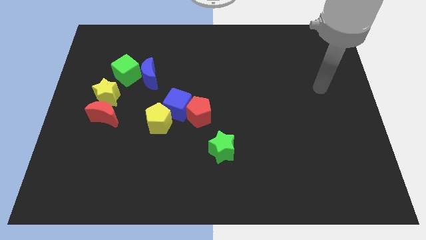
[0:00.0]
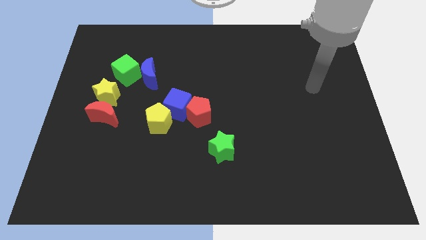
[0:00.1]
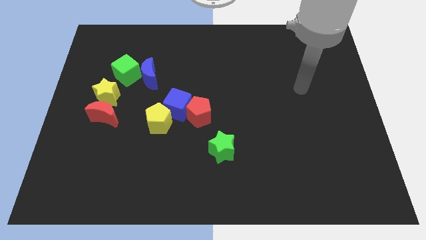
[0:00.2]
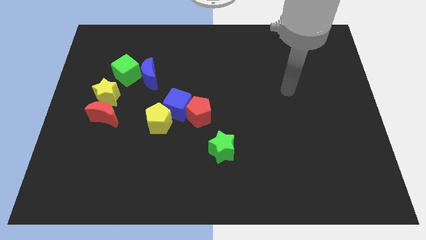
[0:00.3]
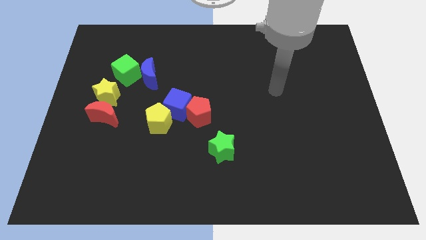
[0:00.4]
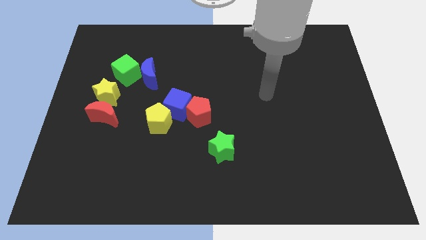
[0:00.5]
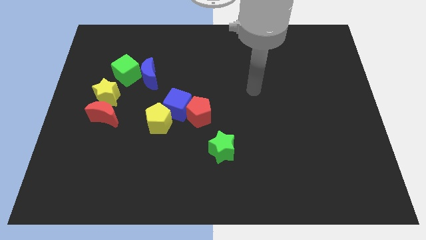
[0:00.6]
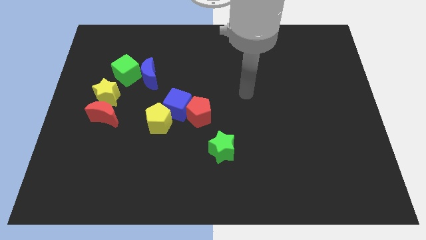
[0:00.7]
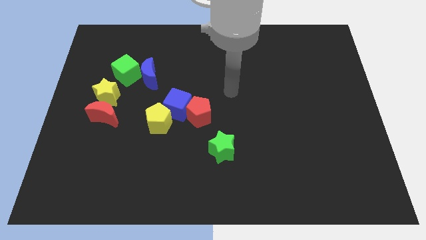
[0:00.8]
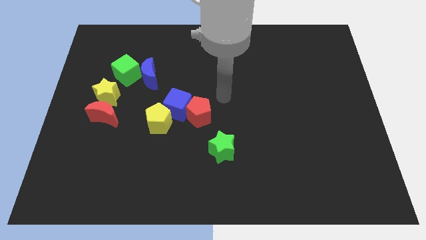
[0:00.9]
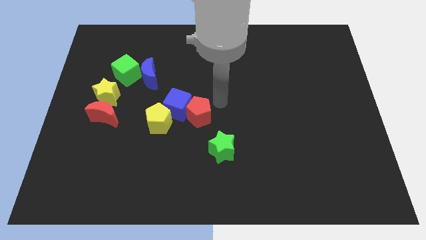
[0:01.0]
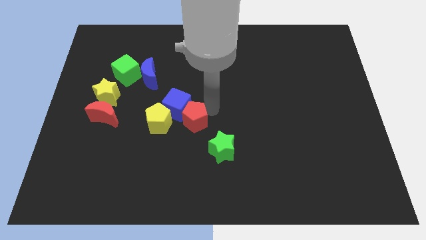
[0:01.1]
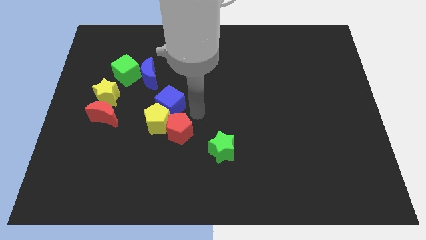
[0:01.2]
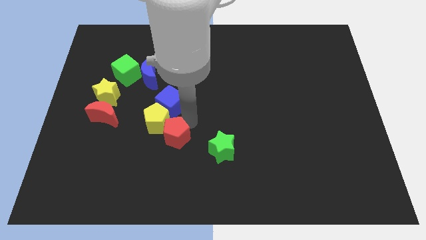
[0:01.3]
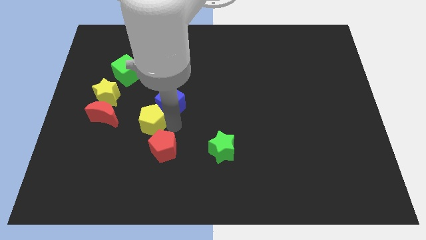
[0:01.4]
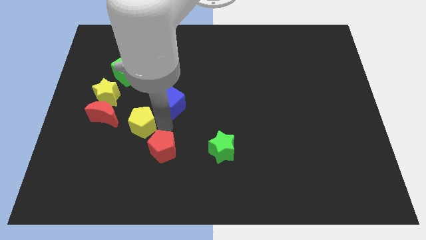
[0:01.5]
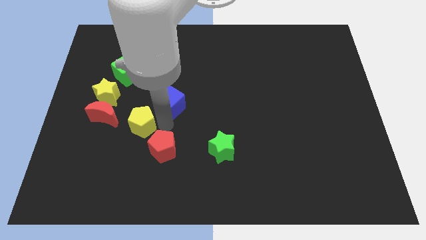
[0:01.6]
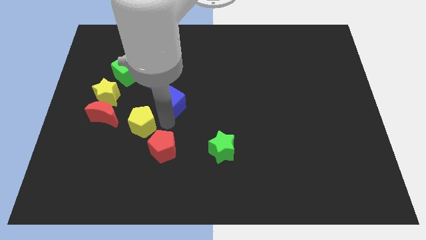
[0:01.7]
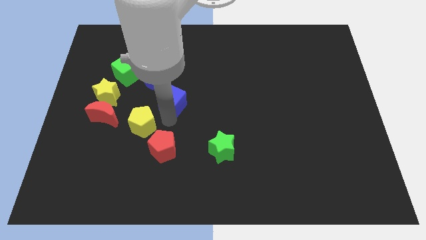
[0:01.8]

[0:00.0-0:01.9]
separate the blue cube from the red pentagon and yellow pentagon

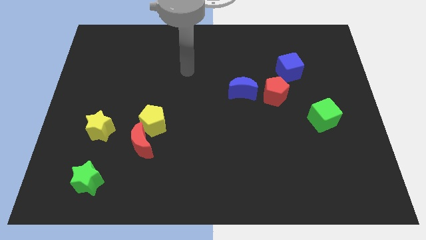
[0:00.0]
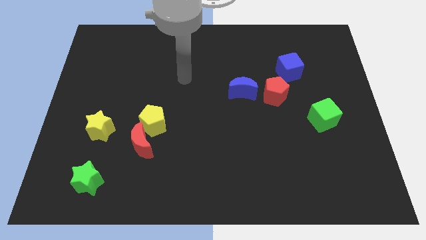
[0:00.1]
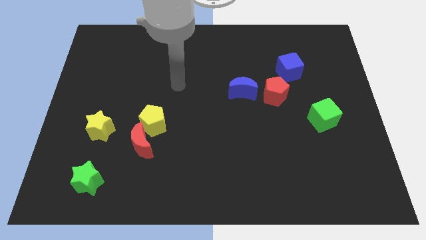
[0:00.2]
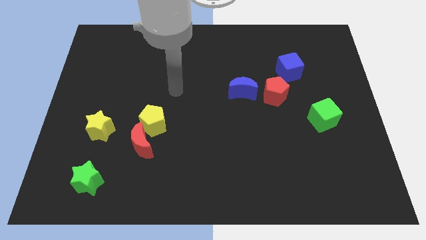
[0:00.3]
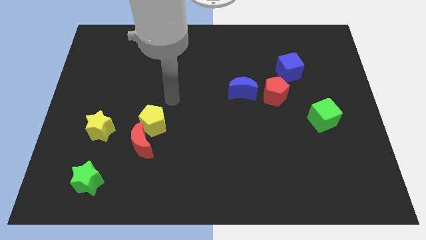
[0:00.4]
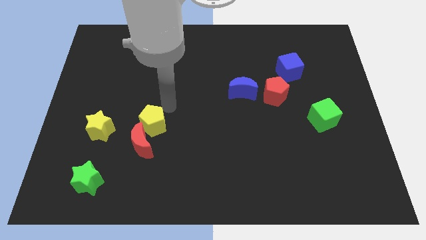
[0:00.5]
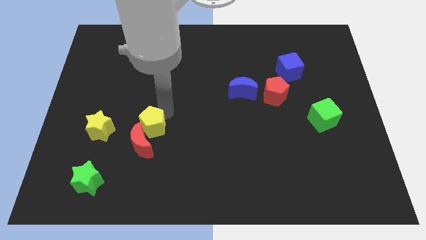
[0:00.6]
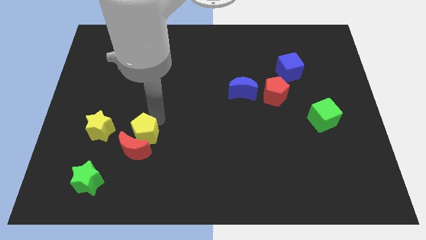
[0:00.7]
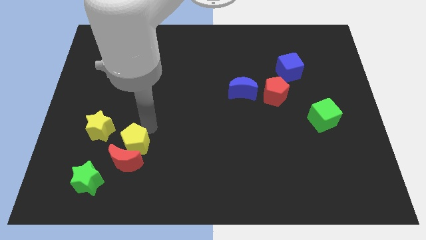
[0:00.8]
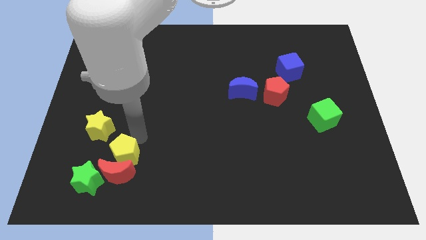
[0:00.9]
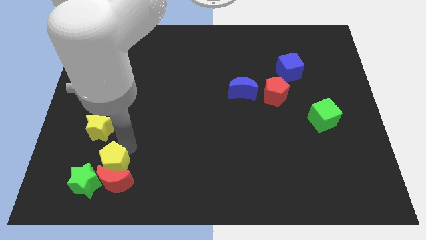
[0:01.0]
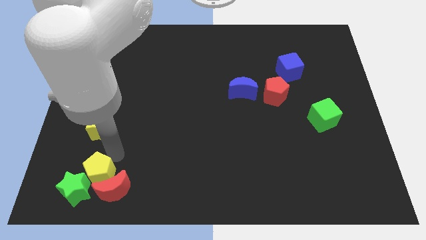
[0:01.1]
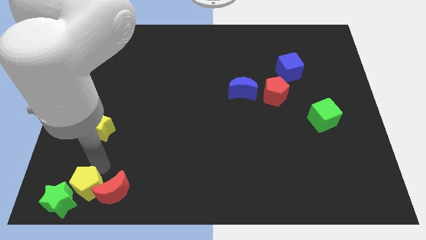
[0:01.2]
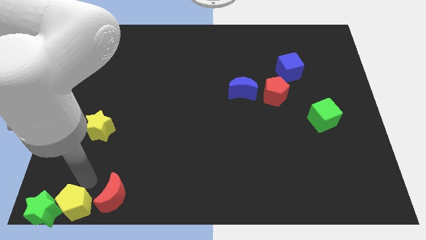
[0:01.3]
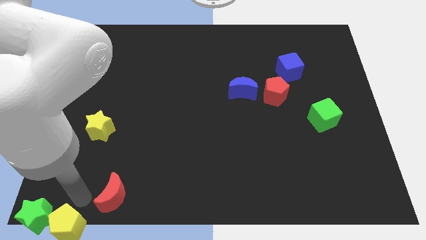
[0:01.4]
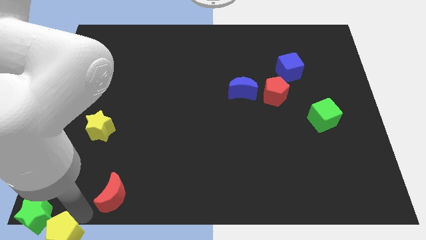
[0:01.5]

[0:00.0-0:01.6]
separate the red moon from the yellow pentagon

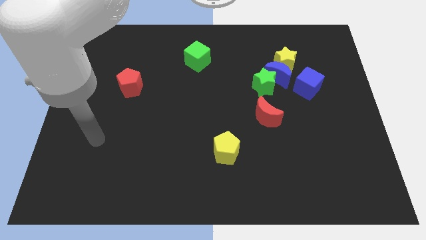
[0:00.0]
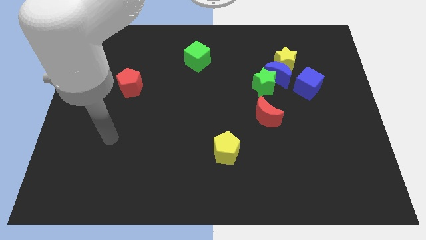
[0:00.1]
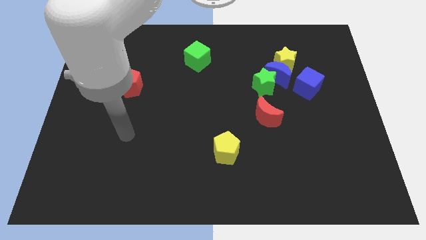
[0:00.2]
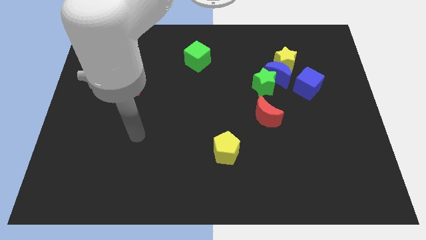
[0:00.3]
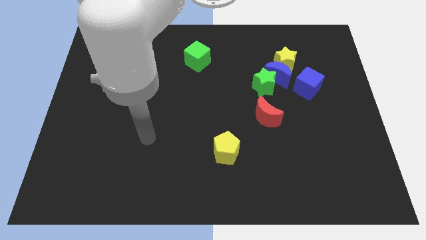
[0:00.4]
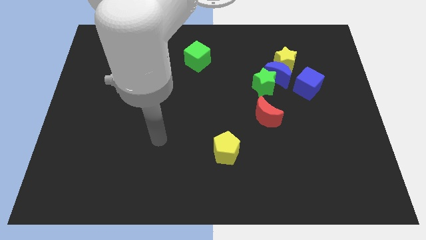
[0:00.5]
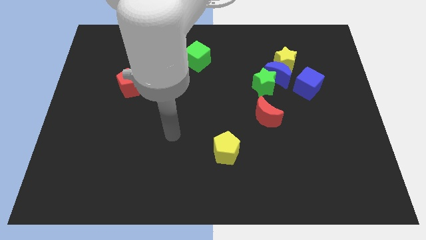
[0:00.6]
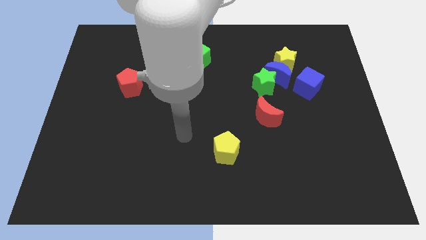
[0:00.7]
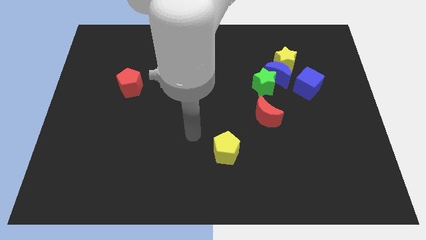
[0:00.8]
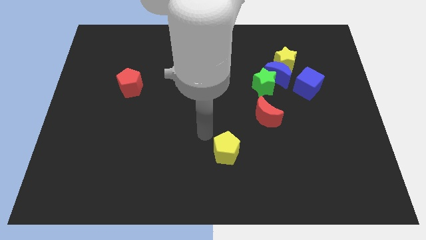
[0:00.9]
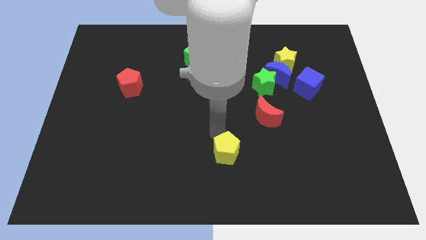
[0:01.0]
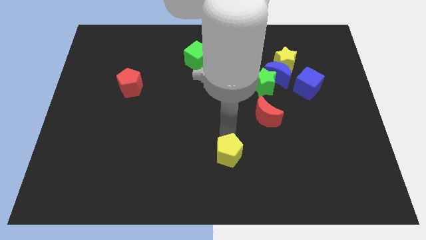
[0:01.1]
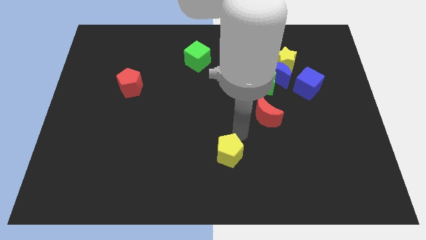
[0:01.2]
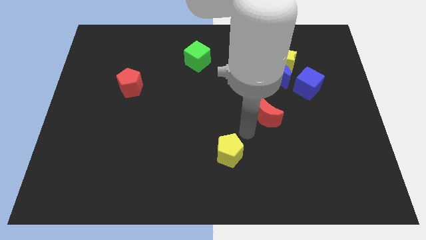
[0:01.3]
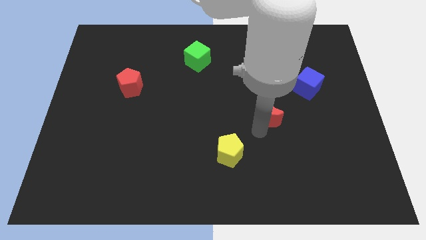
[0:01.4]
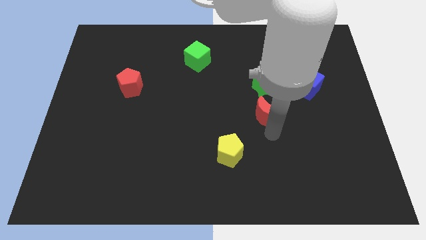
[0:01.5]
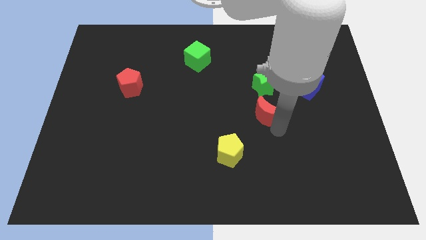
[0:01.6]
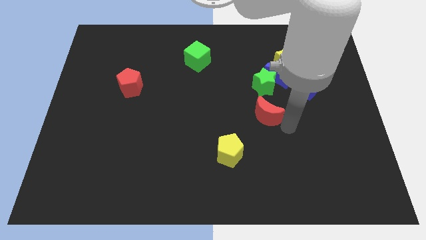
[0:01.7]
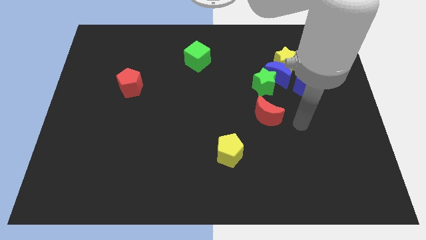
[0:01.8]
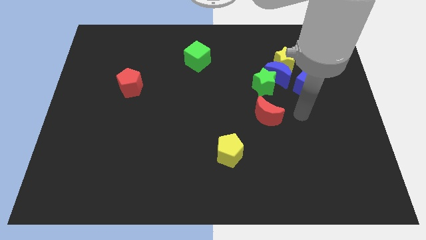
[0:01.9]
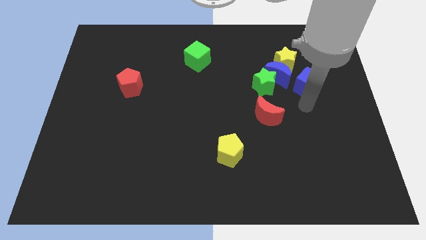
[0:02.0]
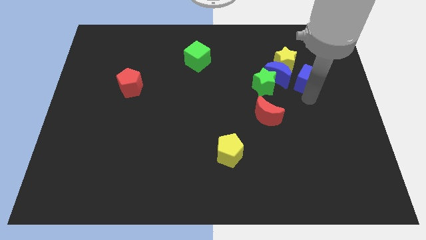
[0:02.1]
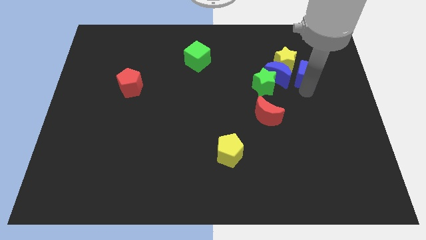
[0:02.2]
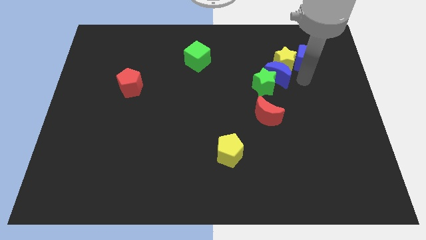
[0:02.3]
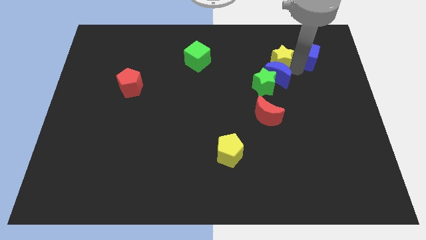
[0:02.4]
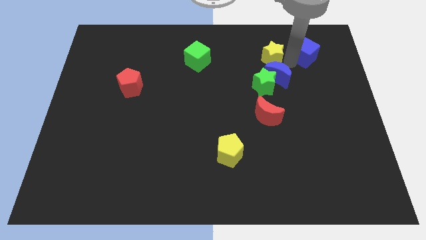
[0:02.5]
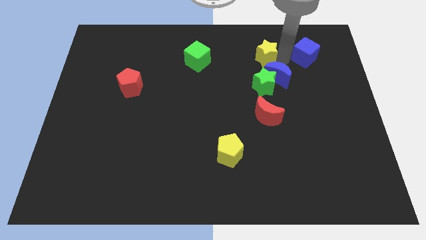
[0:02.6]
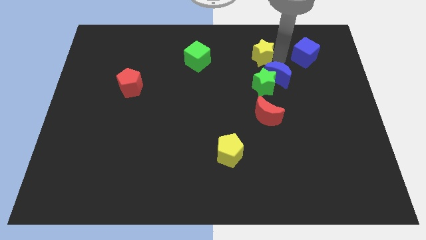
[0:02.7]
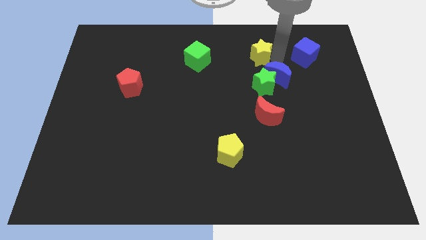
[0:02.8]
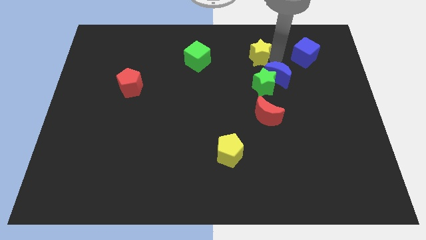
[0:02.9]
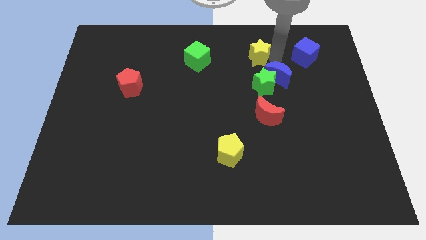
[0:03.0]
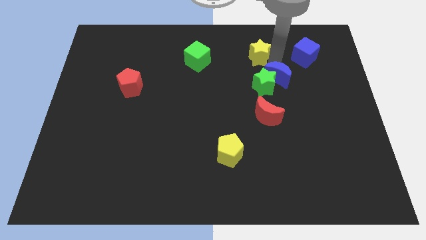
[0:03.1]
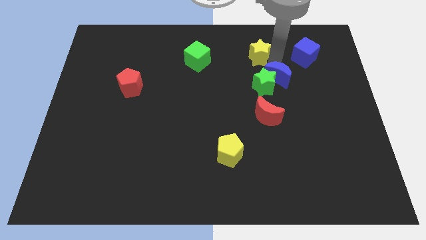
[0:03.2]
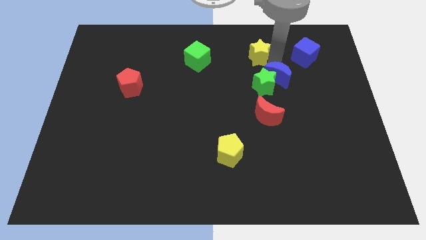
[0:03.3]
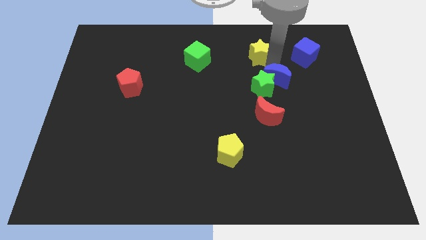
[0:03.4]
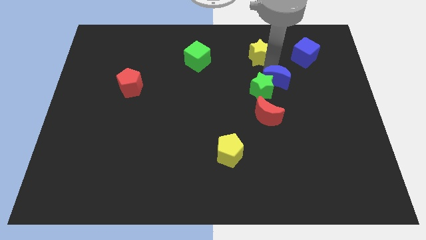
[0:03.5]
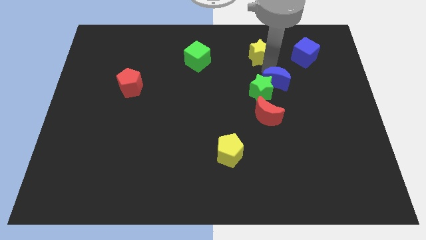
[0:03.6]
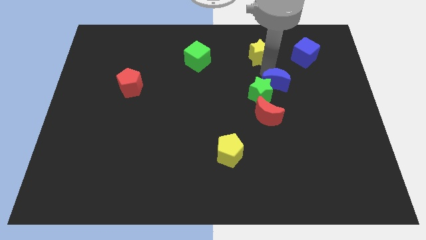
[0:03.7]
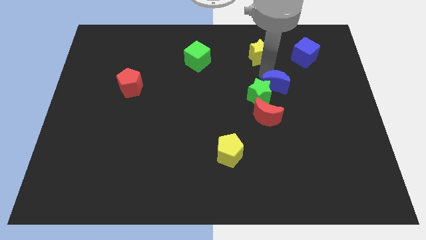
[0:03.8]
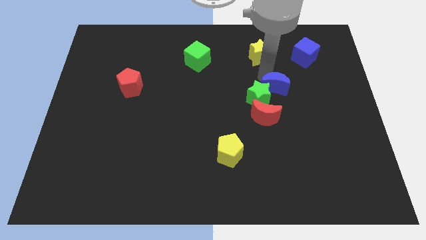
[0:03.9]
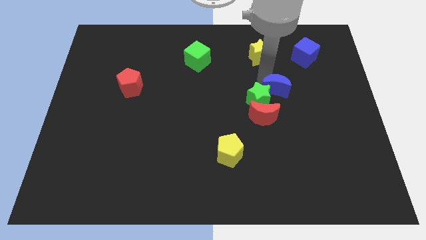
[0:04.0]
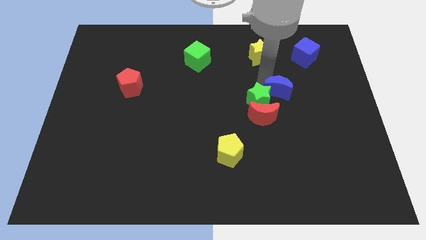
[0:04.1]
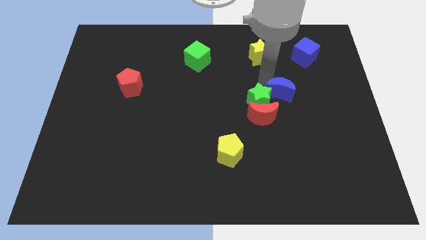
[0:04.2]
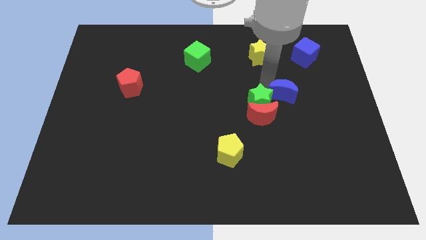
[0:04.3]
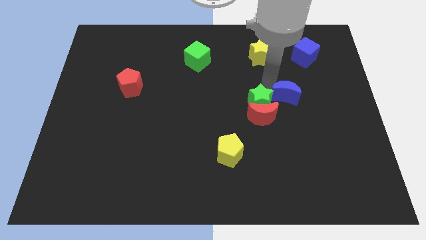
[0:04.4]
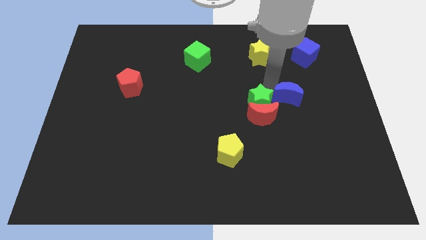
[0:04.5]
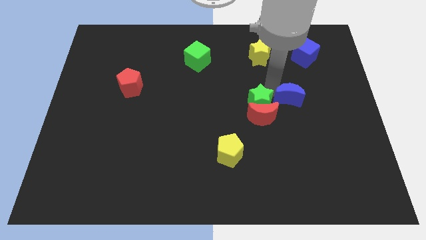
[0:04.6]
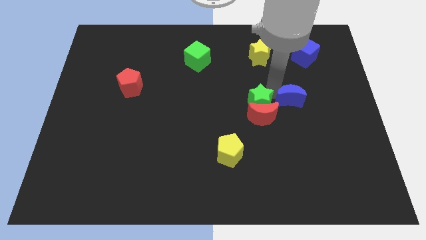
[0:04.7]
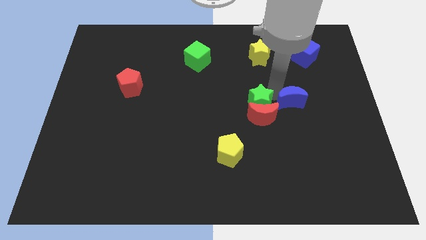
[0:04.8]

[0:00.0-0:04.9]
move the blue moon away from the clump

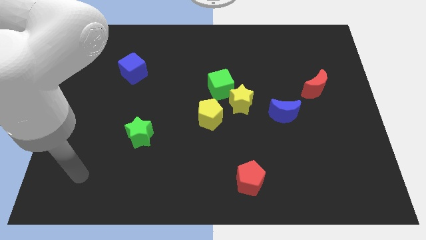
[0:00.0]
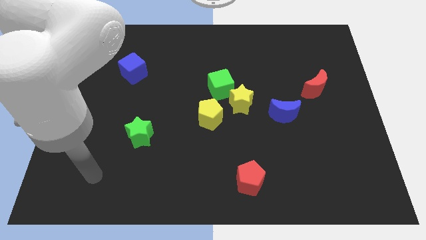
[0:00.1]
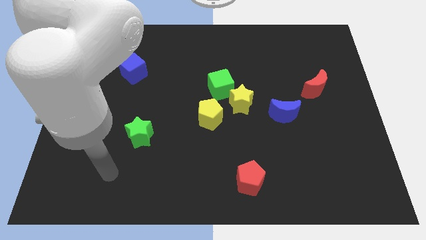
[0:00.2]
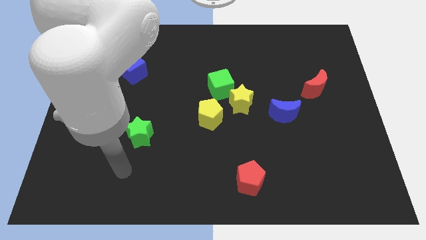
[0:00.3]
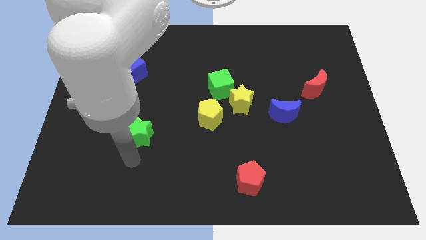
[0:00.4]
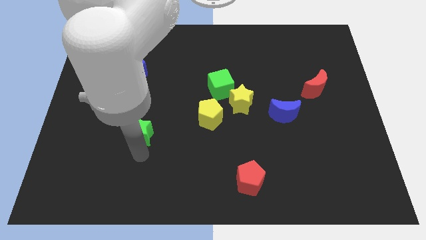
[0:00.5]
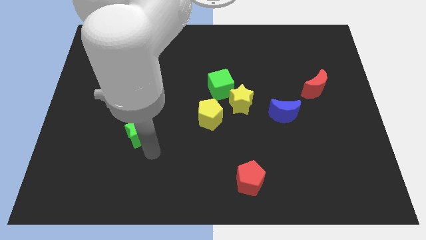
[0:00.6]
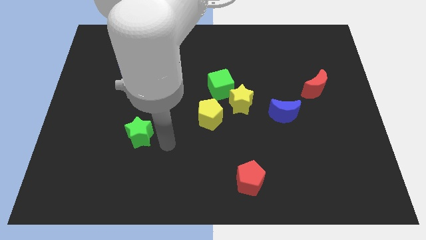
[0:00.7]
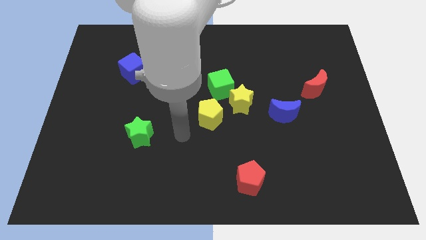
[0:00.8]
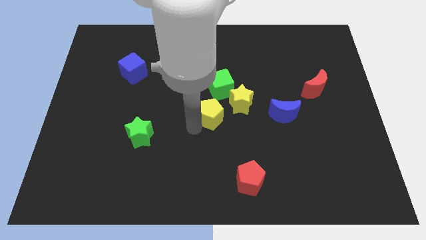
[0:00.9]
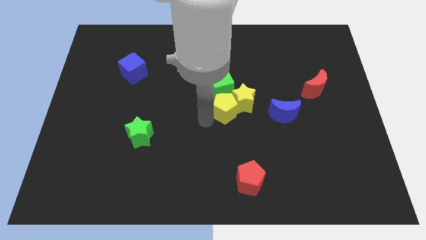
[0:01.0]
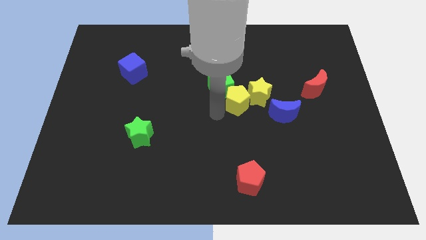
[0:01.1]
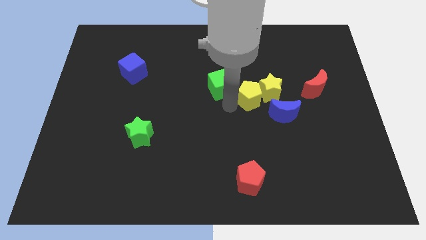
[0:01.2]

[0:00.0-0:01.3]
separate the green cube from the yellow star and yellow pentagon
